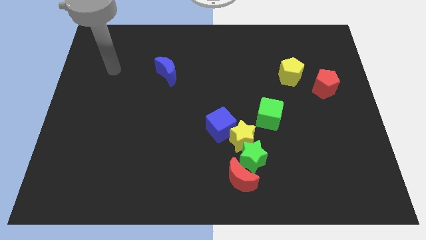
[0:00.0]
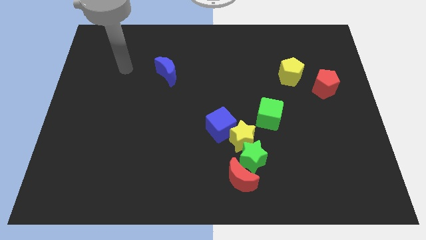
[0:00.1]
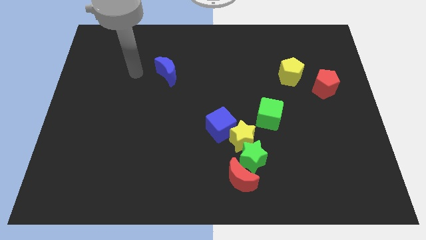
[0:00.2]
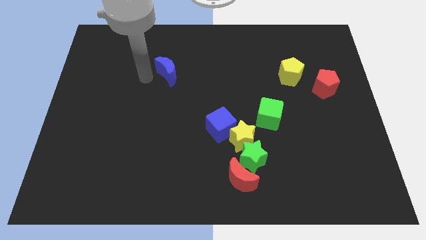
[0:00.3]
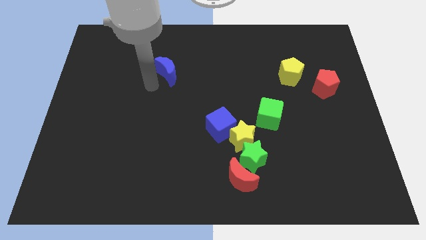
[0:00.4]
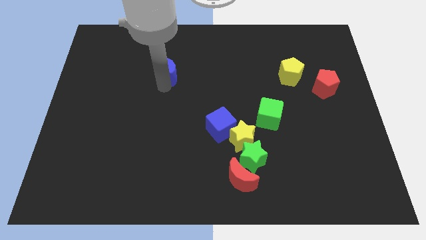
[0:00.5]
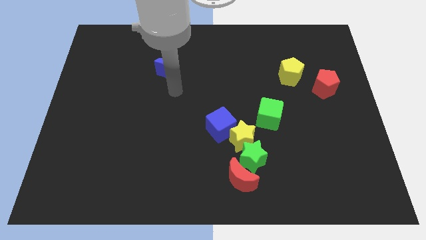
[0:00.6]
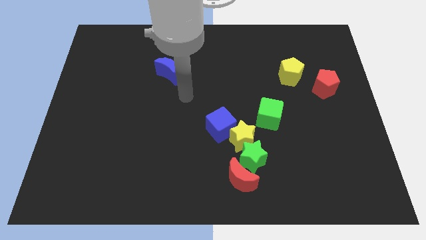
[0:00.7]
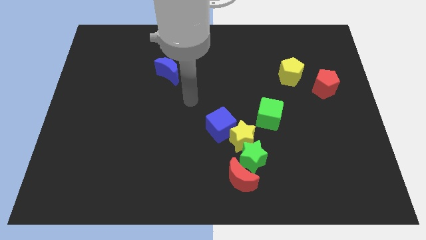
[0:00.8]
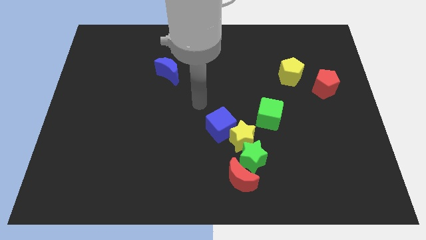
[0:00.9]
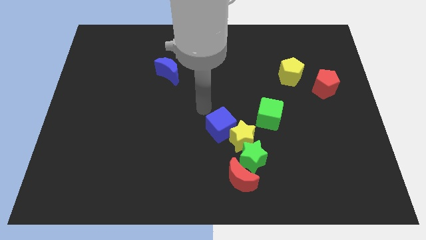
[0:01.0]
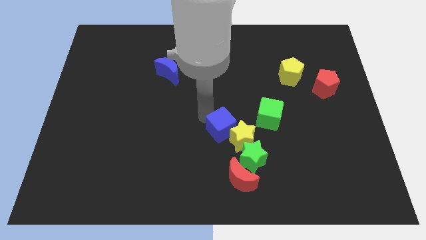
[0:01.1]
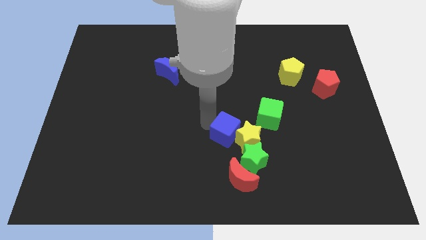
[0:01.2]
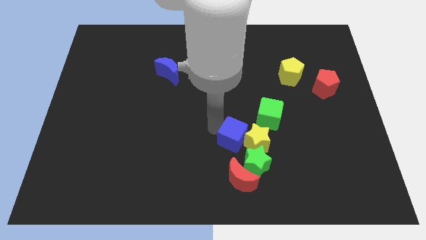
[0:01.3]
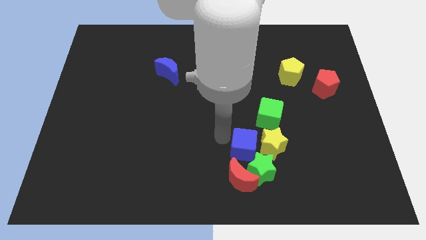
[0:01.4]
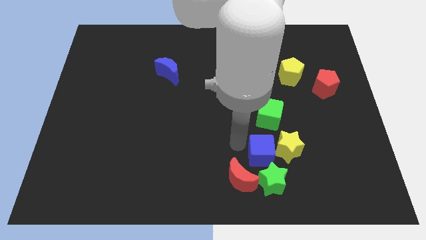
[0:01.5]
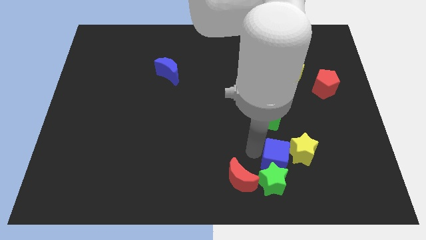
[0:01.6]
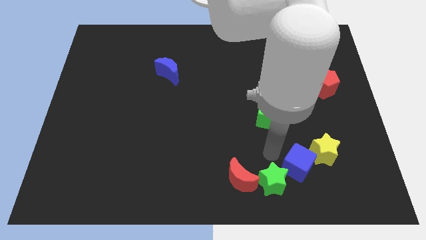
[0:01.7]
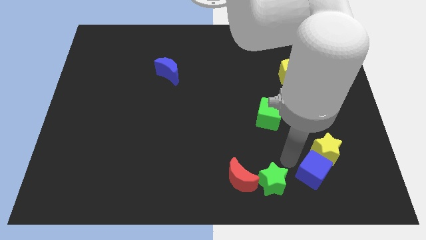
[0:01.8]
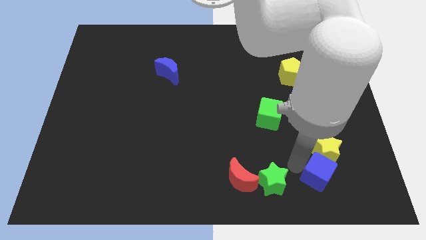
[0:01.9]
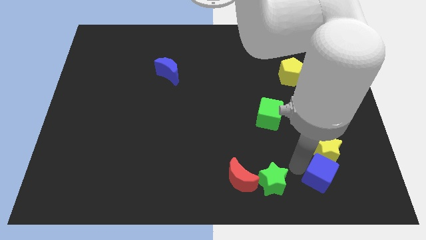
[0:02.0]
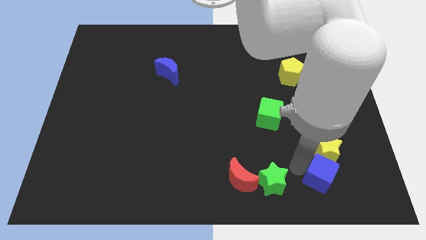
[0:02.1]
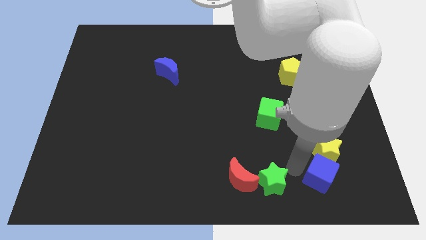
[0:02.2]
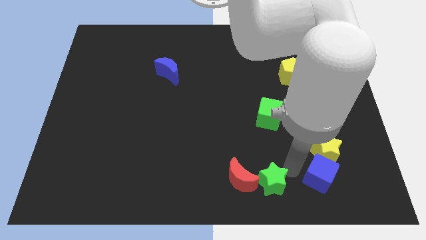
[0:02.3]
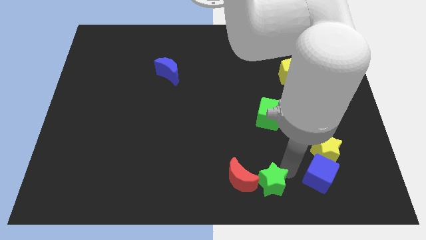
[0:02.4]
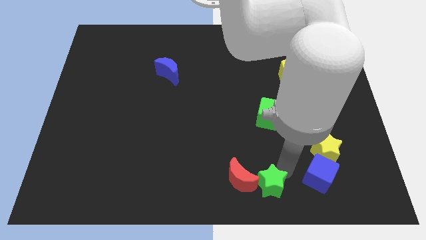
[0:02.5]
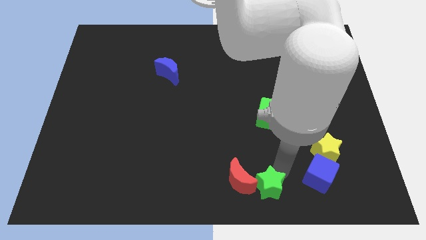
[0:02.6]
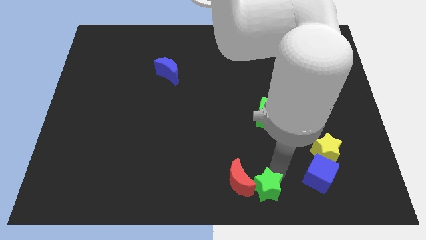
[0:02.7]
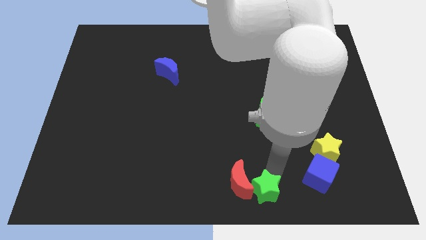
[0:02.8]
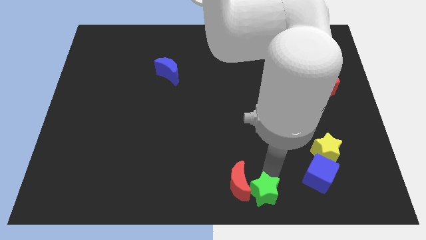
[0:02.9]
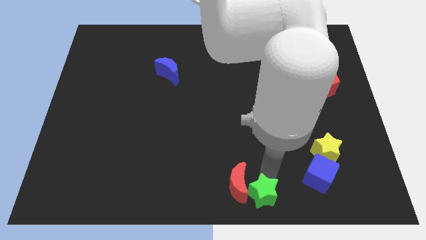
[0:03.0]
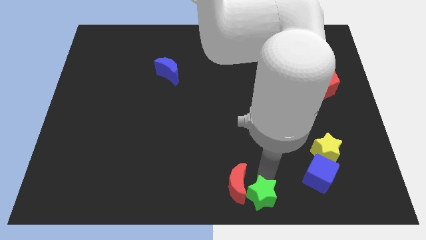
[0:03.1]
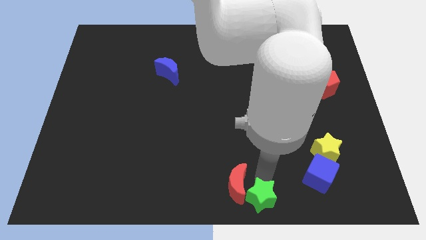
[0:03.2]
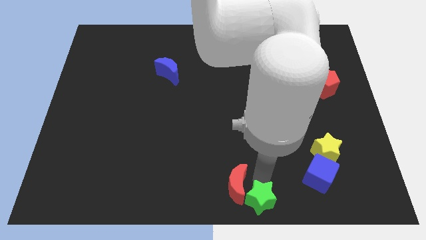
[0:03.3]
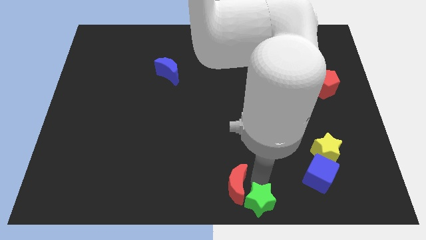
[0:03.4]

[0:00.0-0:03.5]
separate the green star from the clump

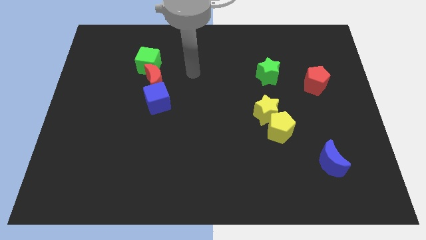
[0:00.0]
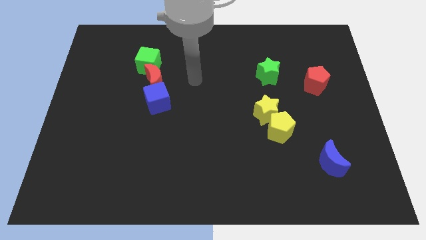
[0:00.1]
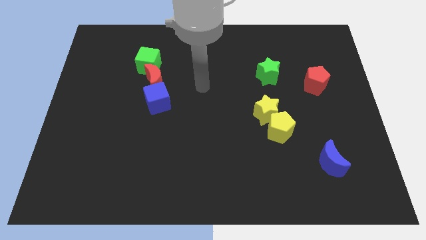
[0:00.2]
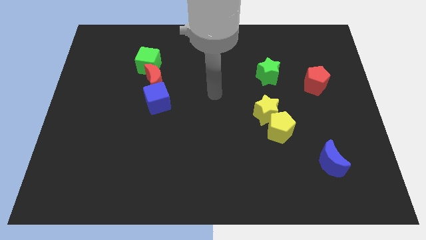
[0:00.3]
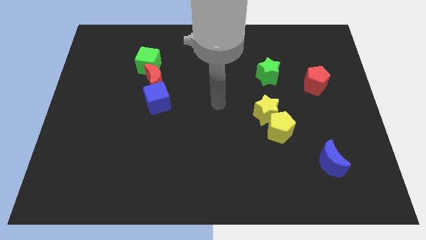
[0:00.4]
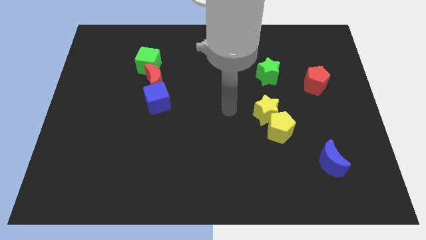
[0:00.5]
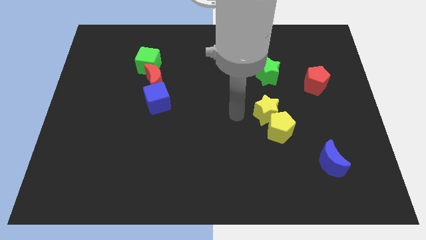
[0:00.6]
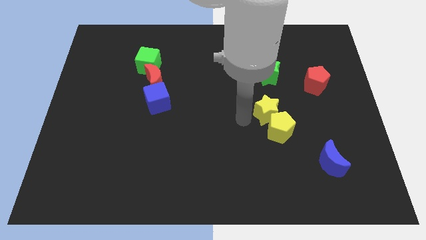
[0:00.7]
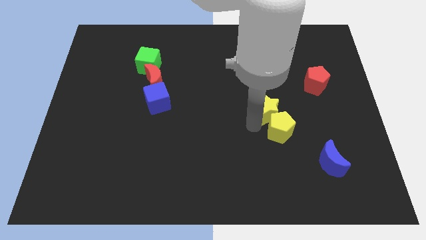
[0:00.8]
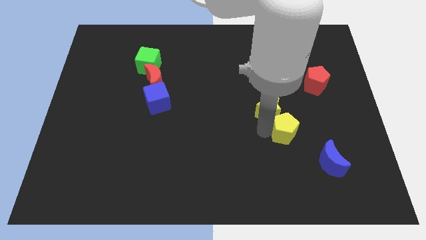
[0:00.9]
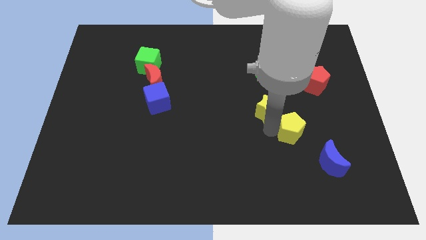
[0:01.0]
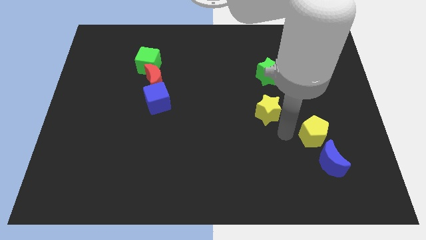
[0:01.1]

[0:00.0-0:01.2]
separate the yellow star from the yellow pentagon

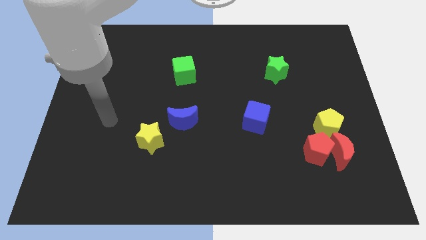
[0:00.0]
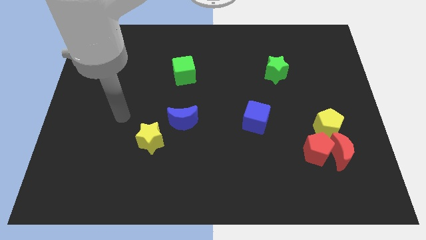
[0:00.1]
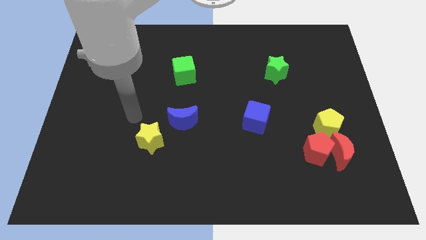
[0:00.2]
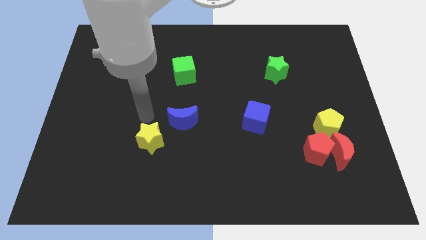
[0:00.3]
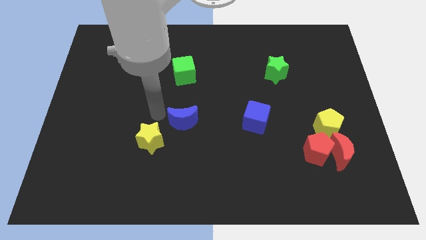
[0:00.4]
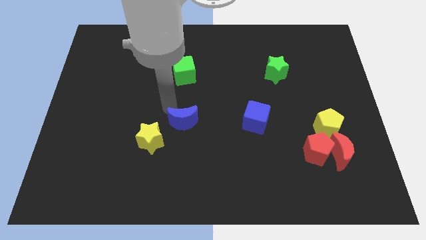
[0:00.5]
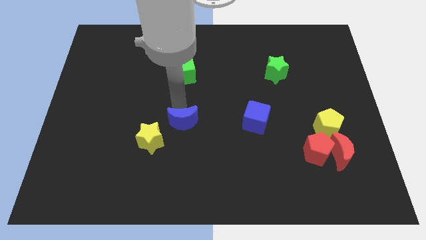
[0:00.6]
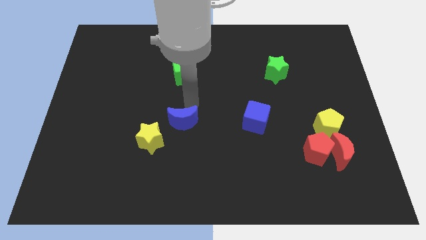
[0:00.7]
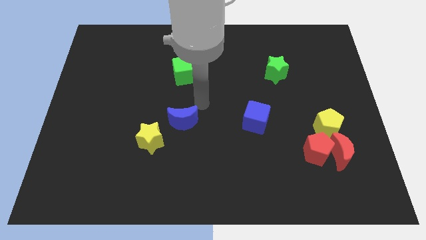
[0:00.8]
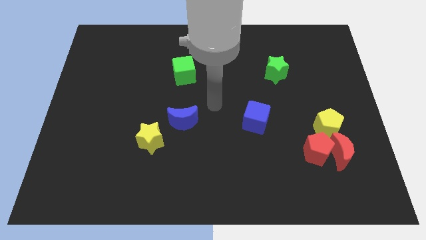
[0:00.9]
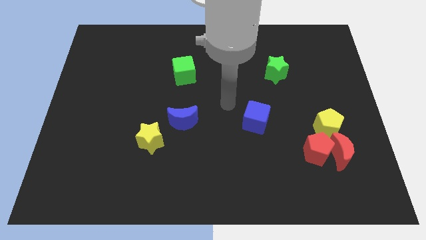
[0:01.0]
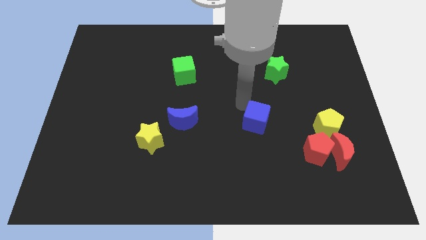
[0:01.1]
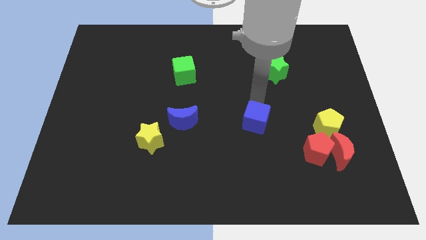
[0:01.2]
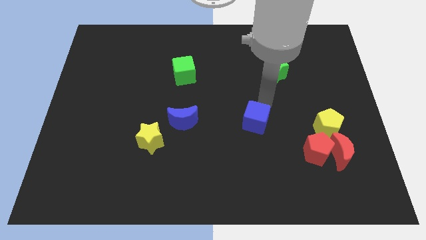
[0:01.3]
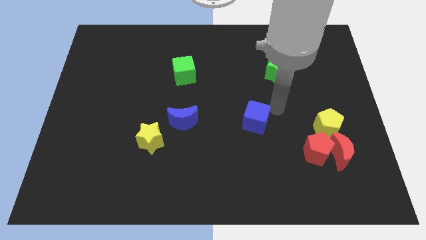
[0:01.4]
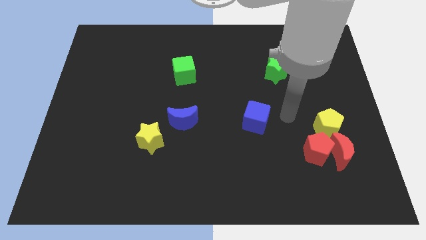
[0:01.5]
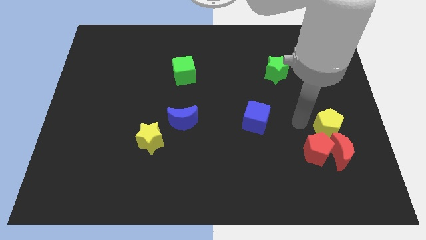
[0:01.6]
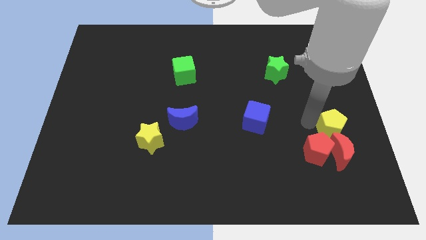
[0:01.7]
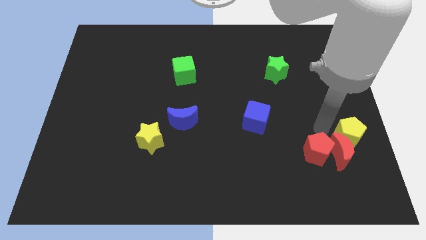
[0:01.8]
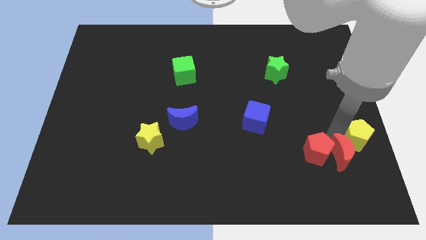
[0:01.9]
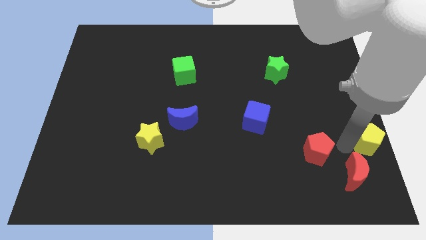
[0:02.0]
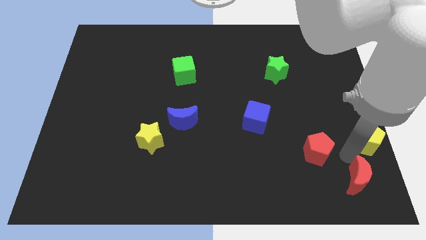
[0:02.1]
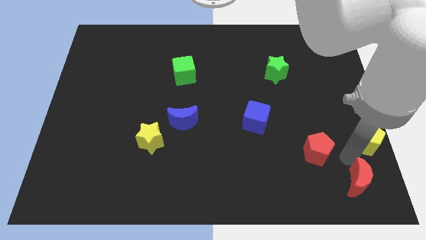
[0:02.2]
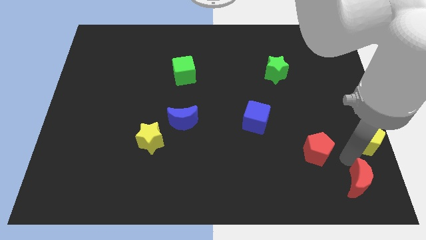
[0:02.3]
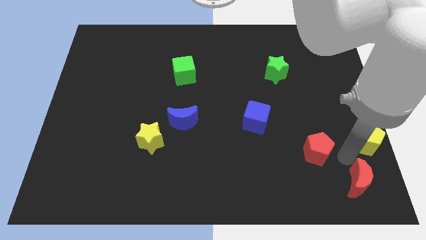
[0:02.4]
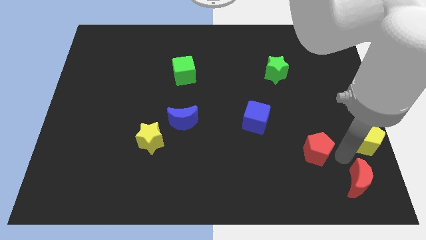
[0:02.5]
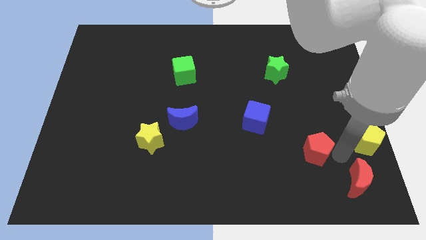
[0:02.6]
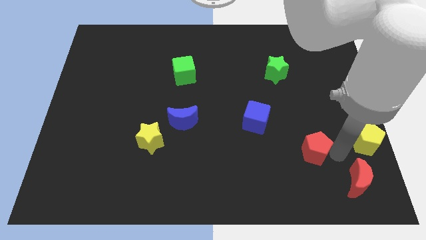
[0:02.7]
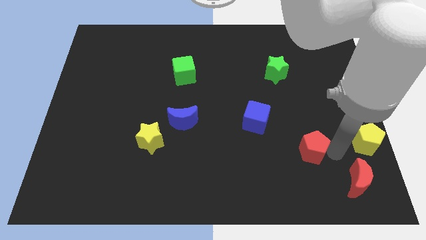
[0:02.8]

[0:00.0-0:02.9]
separate the red pentagon from the red moon and yellow pentagon

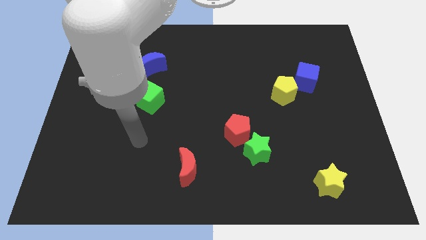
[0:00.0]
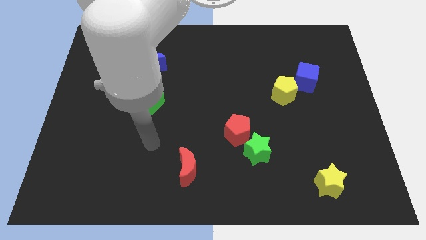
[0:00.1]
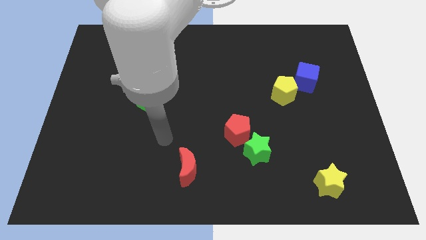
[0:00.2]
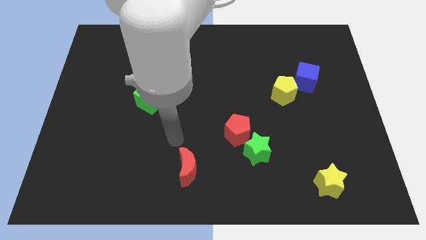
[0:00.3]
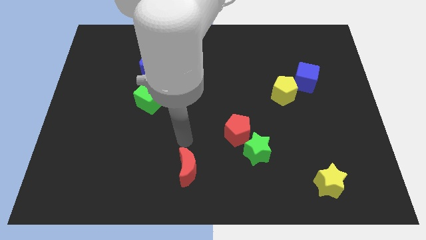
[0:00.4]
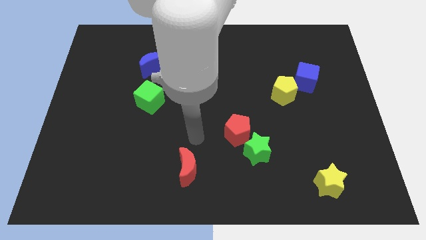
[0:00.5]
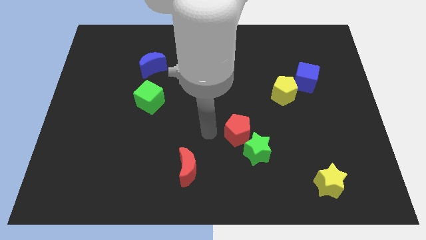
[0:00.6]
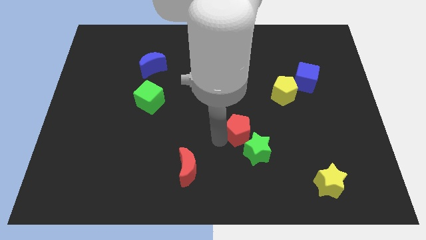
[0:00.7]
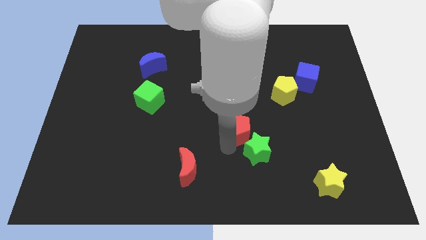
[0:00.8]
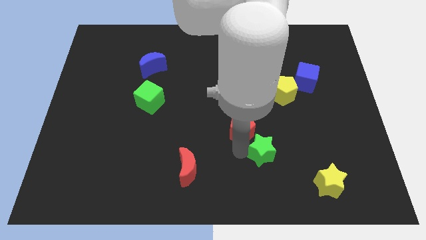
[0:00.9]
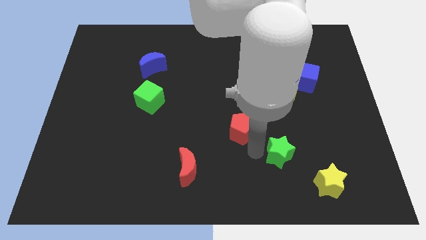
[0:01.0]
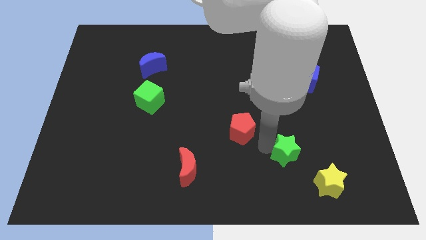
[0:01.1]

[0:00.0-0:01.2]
pull the red pentagon apart from the green star

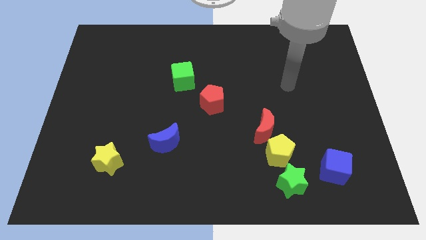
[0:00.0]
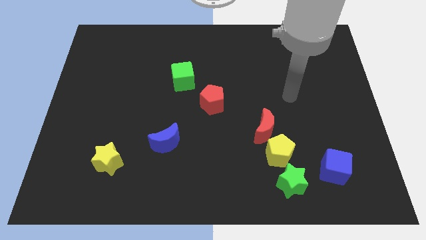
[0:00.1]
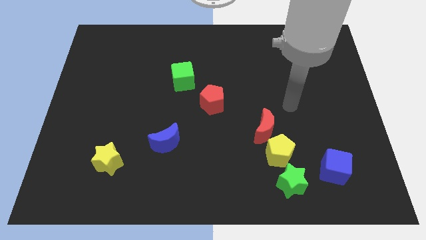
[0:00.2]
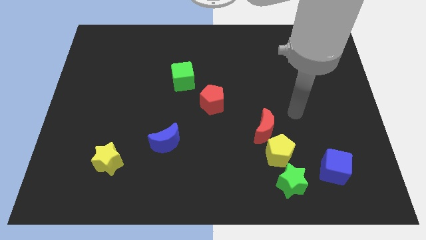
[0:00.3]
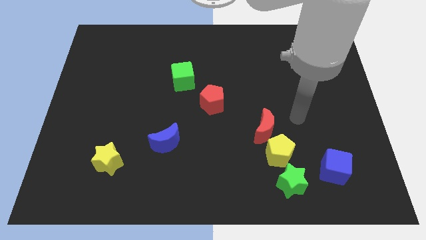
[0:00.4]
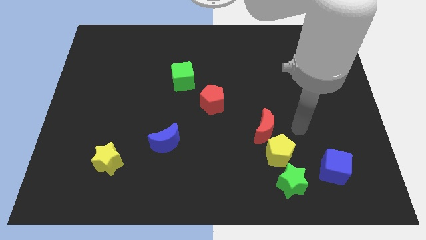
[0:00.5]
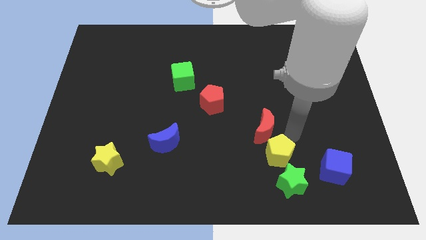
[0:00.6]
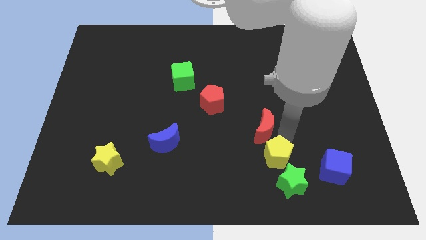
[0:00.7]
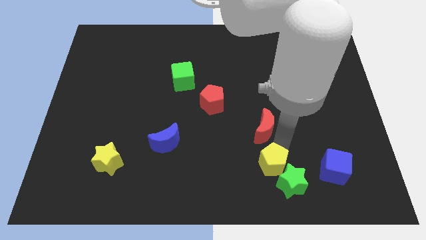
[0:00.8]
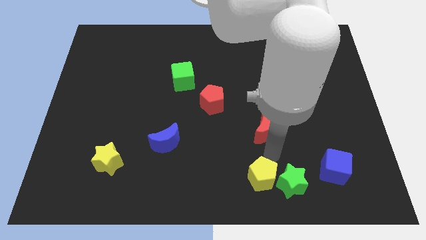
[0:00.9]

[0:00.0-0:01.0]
separate the red moon from the yellow pentagon
